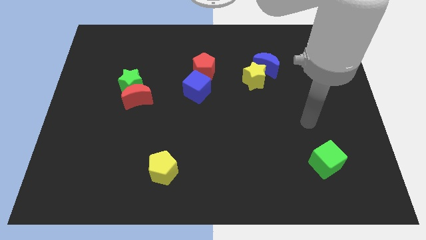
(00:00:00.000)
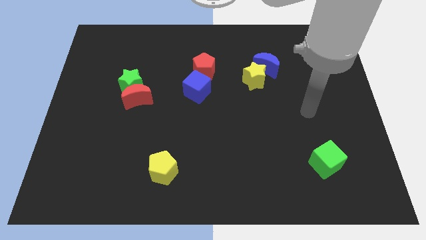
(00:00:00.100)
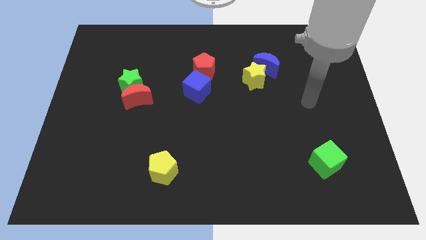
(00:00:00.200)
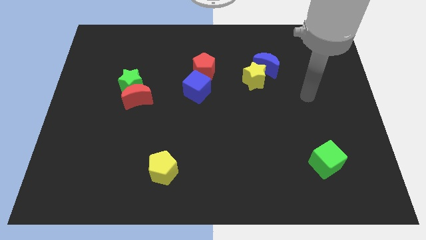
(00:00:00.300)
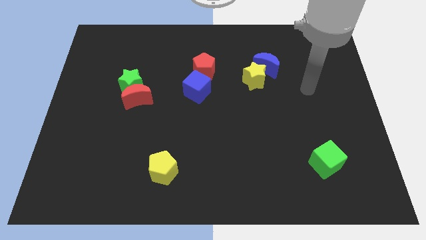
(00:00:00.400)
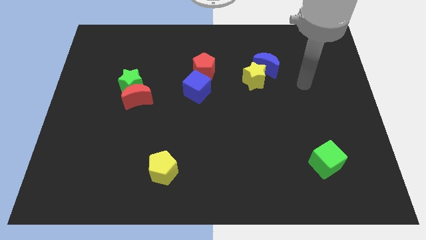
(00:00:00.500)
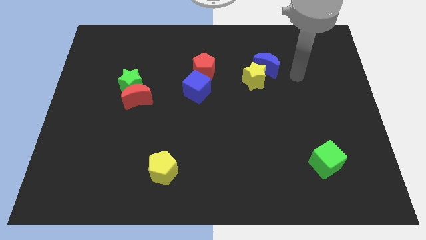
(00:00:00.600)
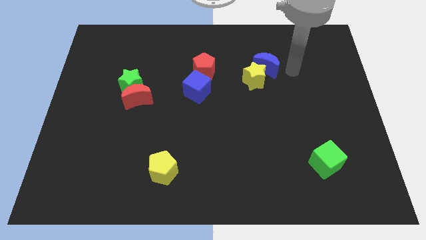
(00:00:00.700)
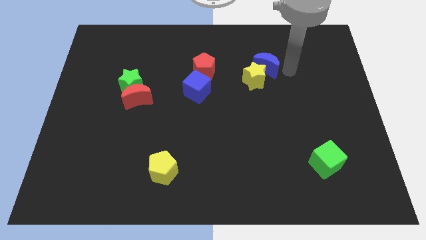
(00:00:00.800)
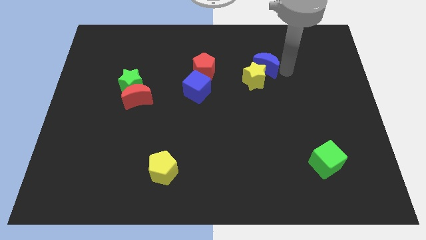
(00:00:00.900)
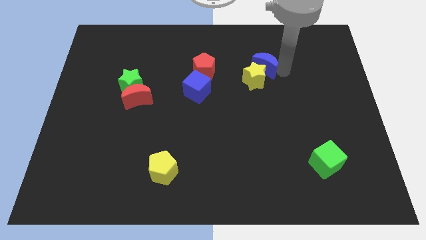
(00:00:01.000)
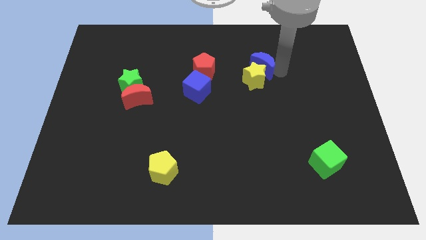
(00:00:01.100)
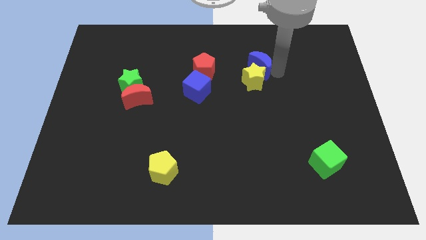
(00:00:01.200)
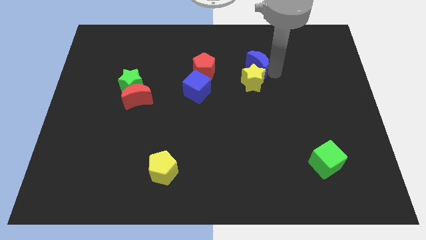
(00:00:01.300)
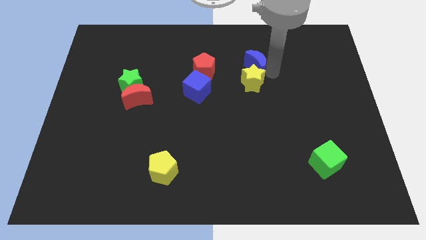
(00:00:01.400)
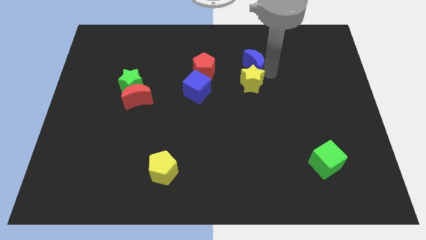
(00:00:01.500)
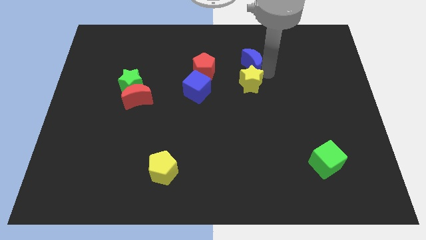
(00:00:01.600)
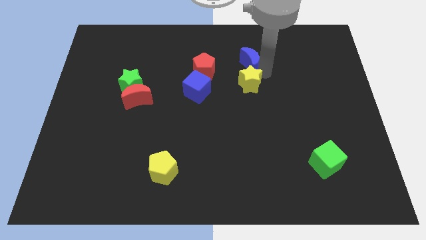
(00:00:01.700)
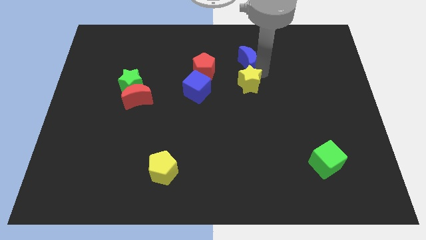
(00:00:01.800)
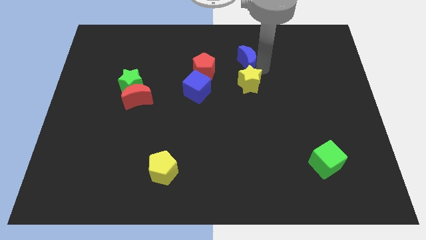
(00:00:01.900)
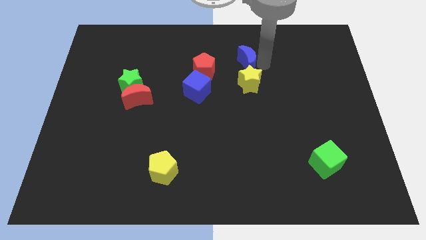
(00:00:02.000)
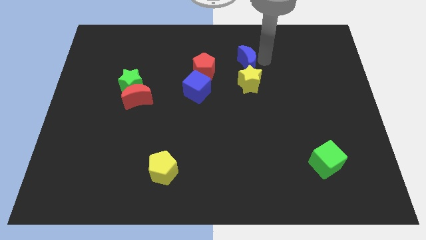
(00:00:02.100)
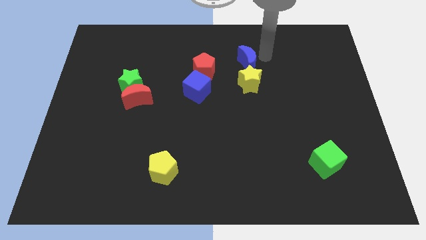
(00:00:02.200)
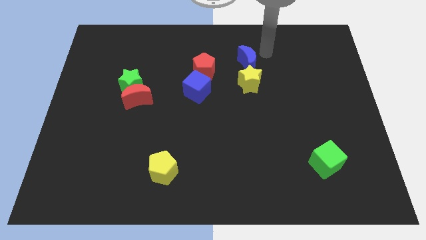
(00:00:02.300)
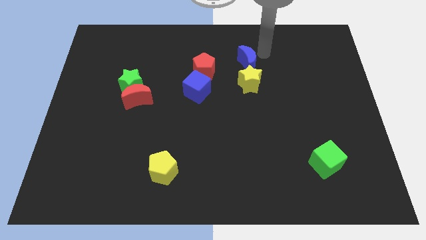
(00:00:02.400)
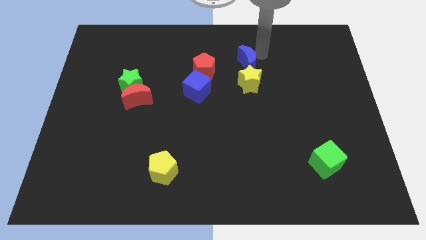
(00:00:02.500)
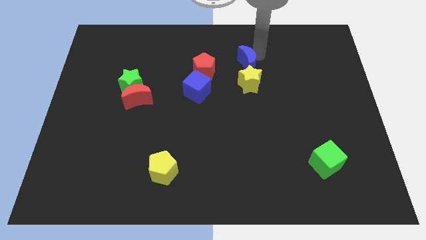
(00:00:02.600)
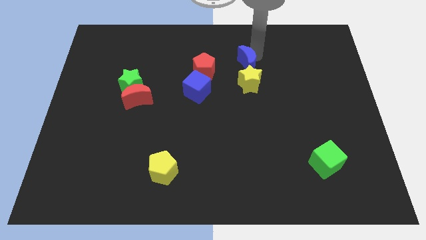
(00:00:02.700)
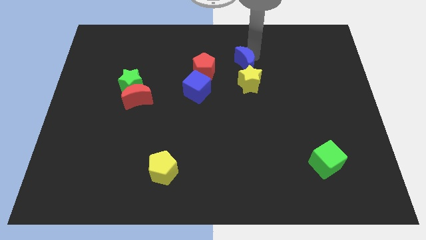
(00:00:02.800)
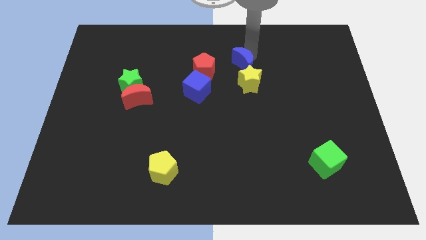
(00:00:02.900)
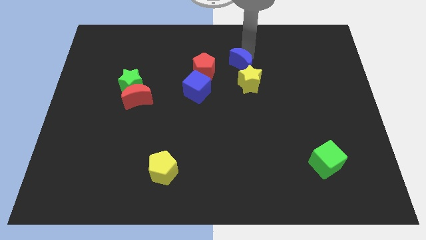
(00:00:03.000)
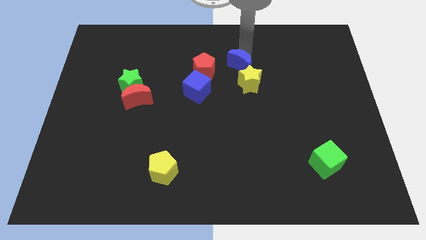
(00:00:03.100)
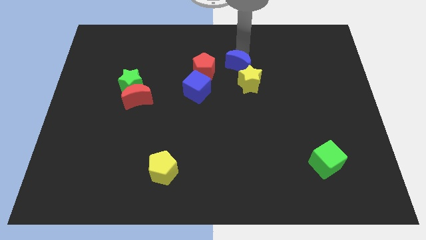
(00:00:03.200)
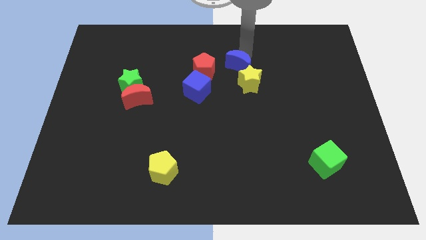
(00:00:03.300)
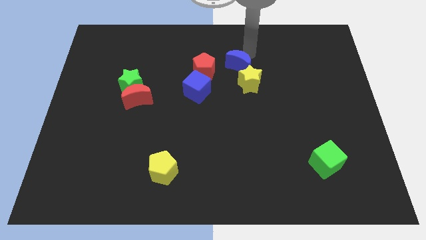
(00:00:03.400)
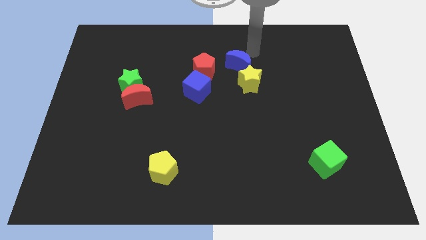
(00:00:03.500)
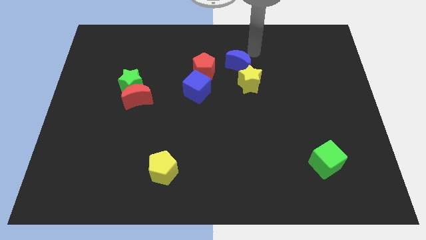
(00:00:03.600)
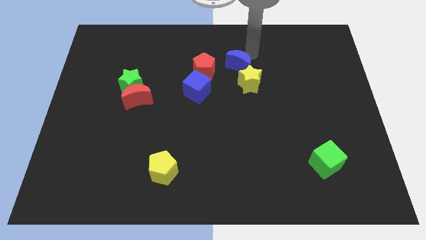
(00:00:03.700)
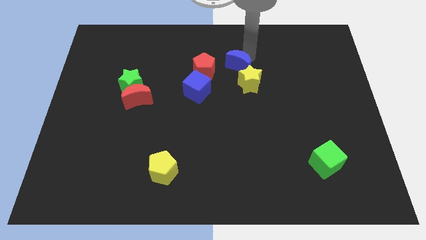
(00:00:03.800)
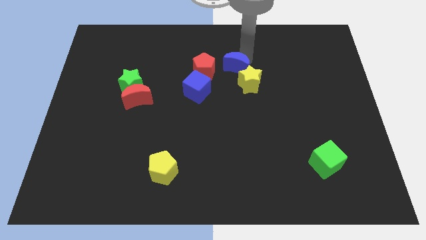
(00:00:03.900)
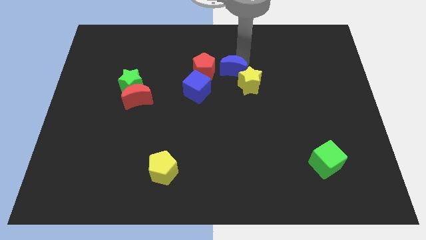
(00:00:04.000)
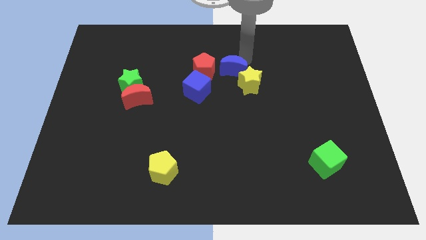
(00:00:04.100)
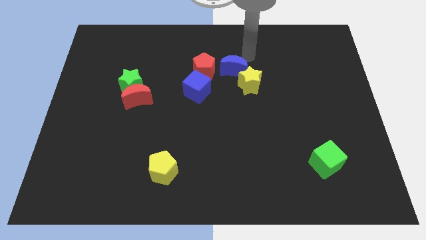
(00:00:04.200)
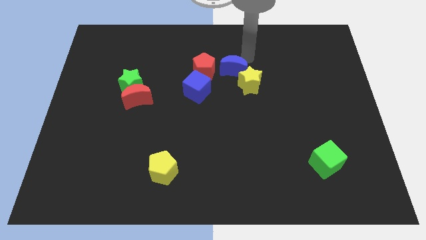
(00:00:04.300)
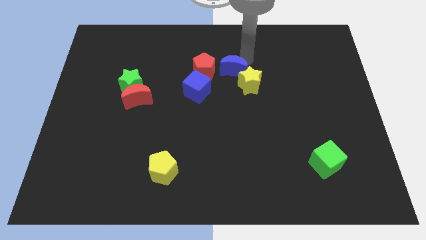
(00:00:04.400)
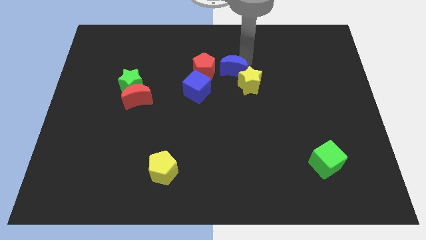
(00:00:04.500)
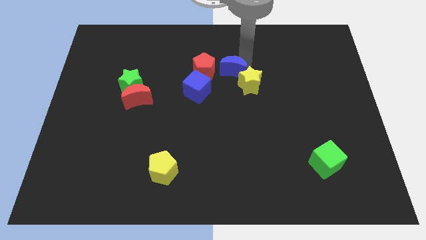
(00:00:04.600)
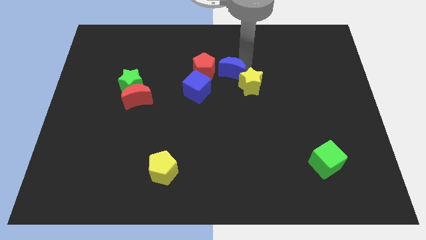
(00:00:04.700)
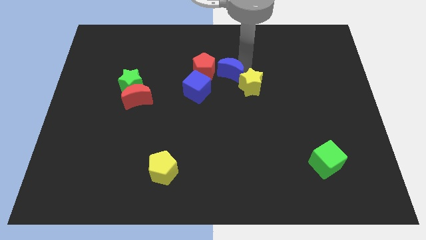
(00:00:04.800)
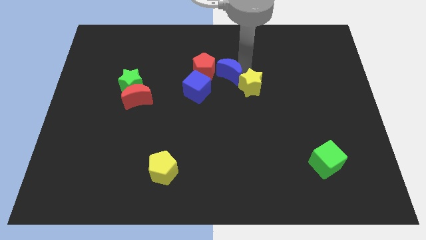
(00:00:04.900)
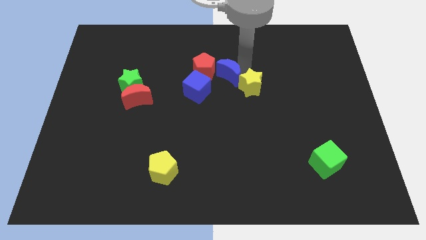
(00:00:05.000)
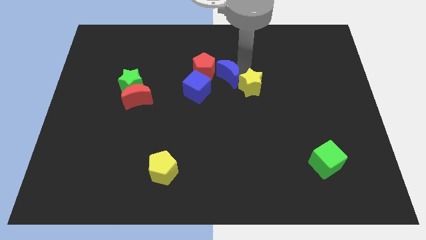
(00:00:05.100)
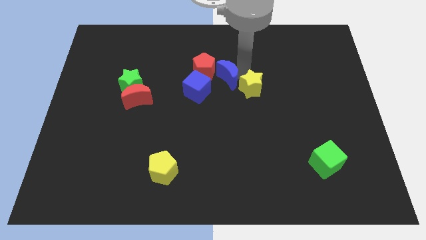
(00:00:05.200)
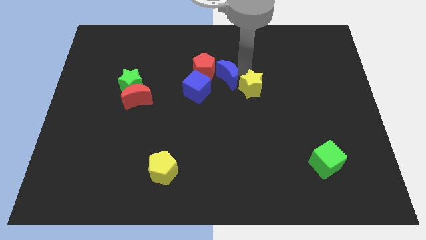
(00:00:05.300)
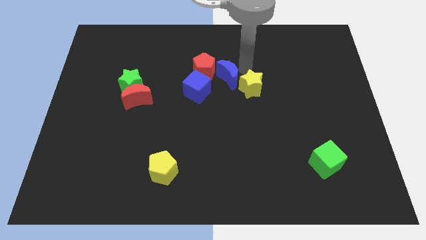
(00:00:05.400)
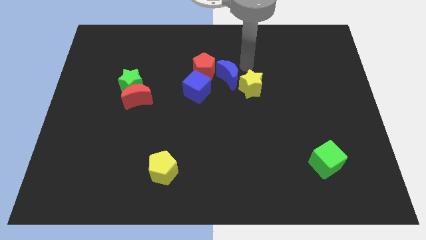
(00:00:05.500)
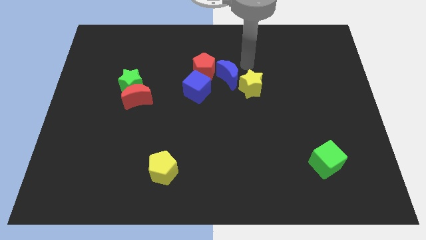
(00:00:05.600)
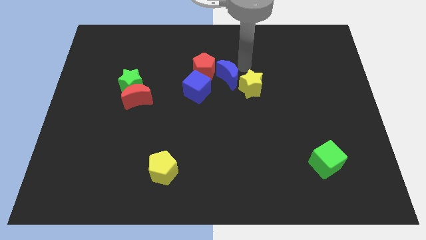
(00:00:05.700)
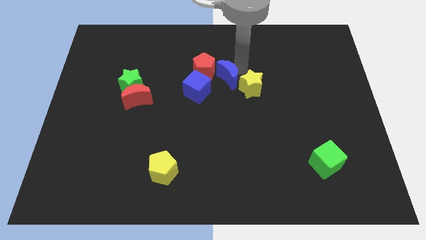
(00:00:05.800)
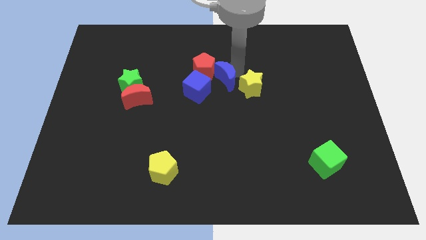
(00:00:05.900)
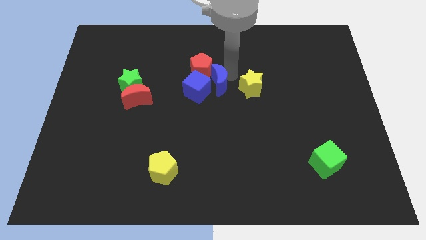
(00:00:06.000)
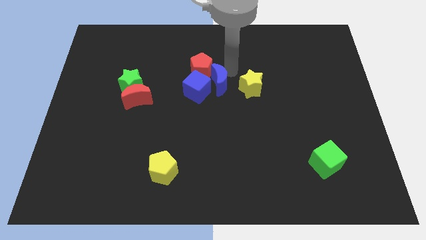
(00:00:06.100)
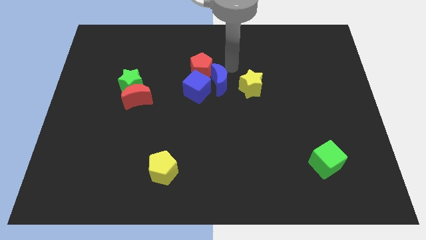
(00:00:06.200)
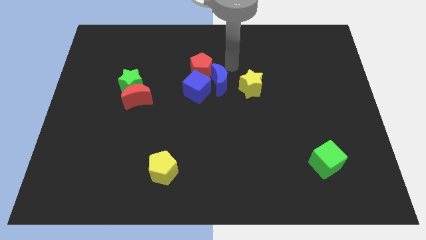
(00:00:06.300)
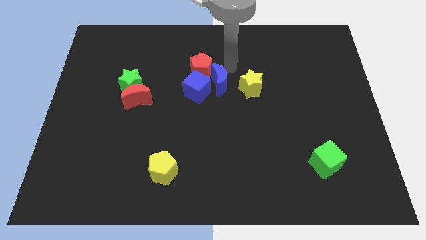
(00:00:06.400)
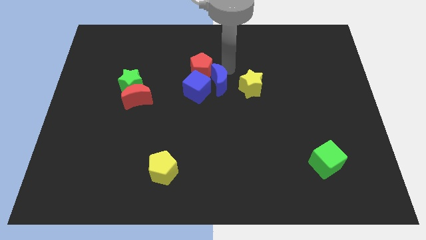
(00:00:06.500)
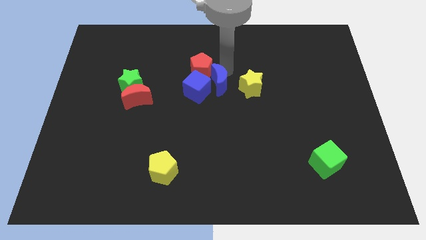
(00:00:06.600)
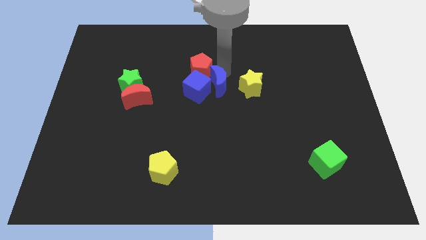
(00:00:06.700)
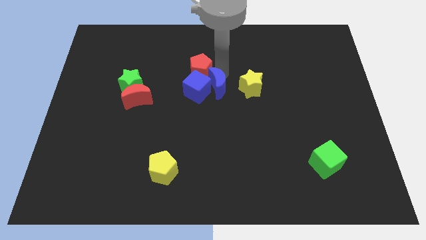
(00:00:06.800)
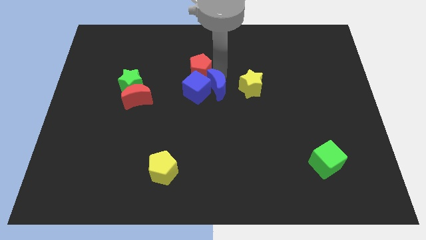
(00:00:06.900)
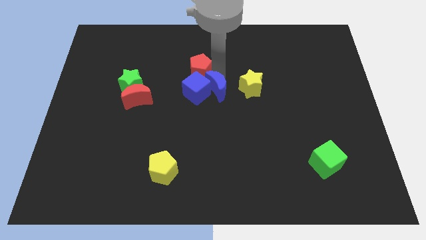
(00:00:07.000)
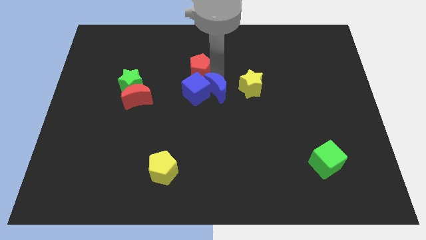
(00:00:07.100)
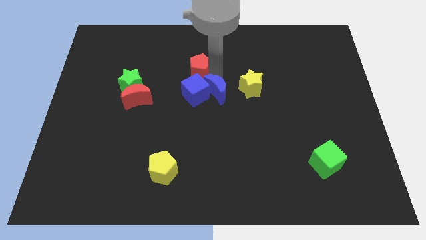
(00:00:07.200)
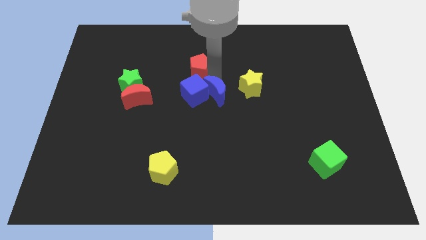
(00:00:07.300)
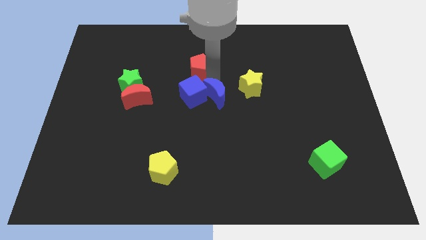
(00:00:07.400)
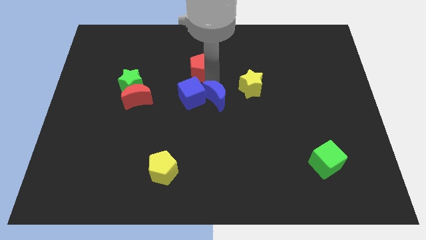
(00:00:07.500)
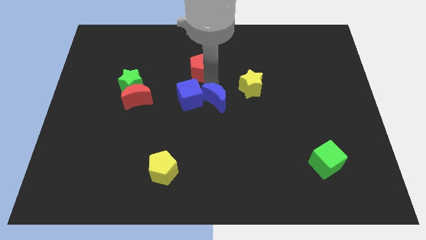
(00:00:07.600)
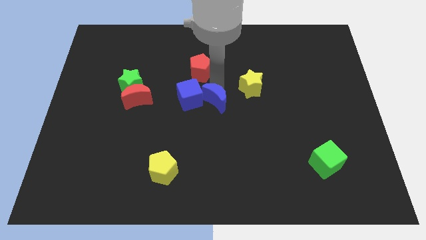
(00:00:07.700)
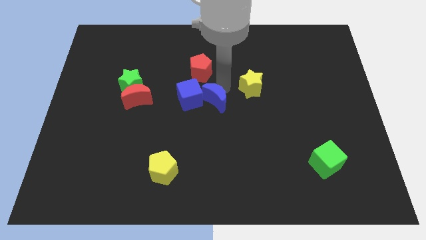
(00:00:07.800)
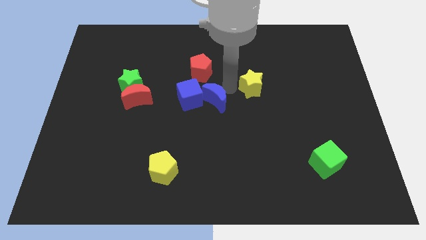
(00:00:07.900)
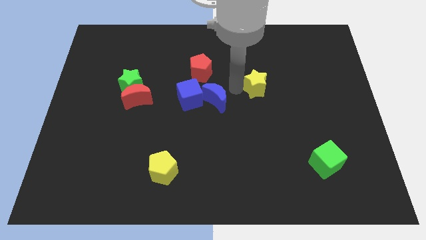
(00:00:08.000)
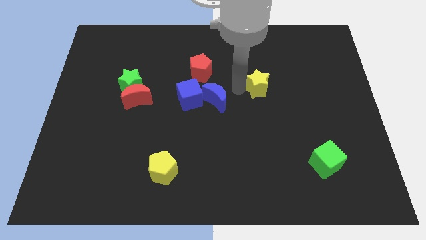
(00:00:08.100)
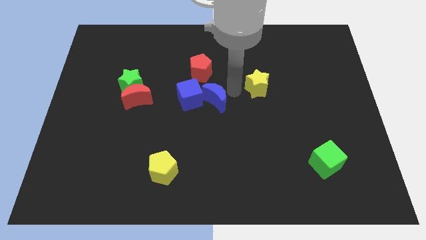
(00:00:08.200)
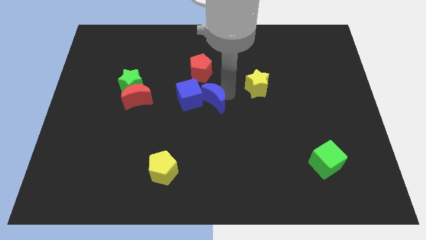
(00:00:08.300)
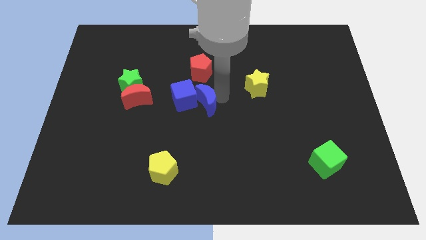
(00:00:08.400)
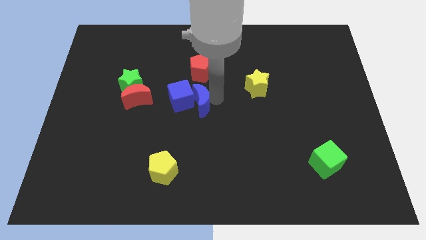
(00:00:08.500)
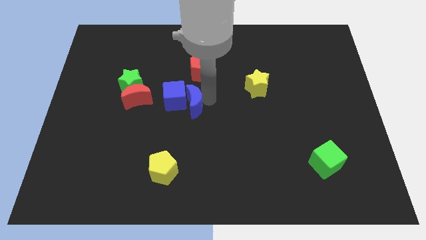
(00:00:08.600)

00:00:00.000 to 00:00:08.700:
slide the blue moon downwards and left
